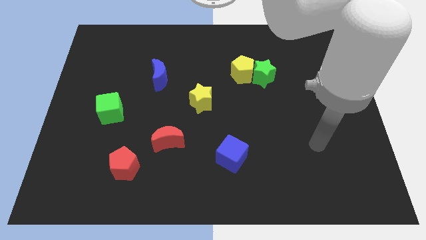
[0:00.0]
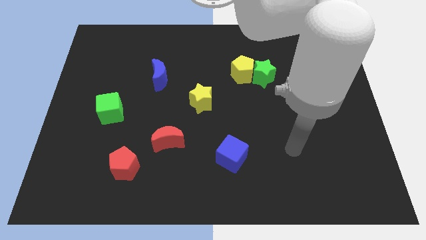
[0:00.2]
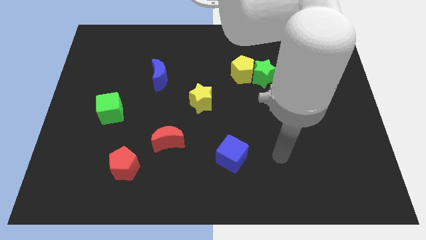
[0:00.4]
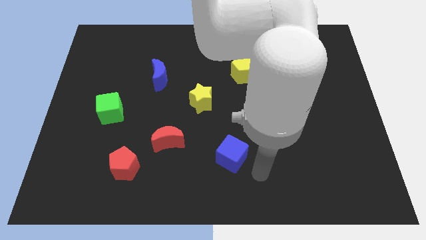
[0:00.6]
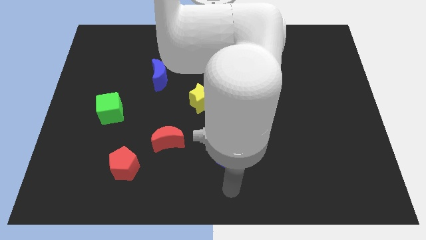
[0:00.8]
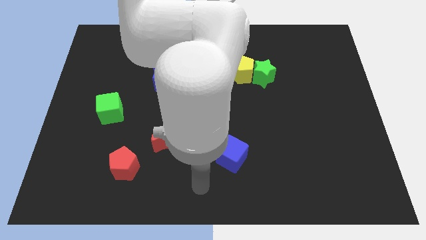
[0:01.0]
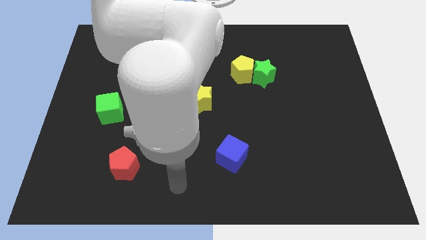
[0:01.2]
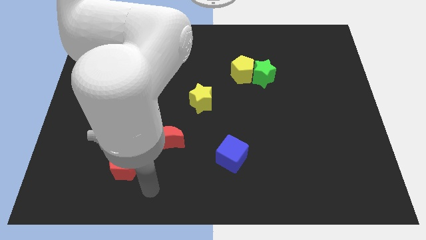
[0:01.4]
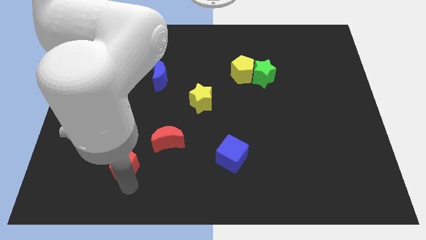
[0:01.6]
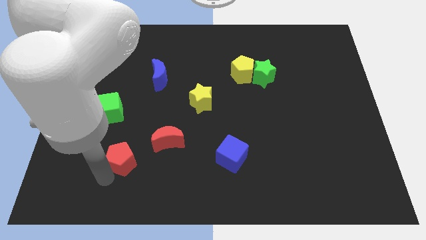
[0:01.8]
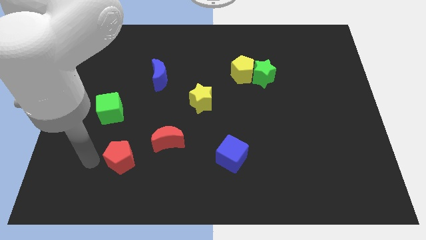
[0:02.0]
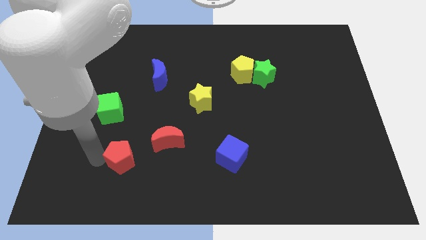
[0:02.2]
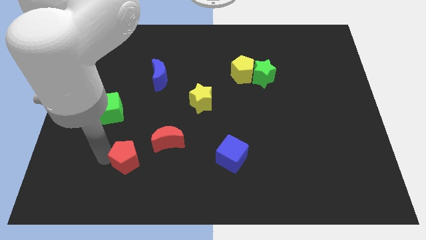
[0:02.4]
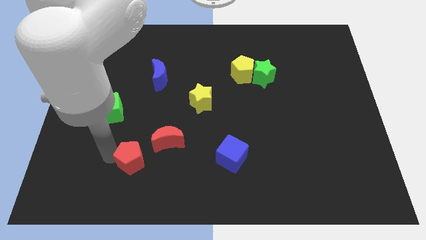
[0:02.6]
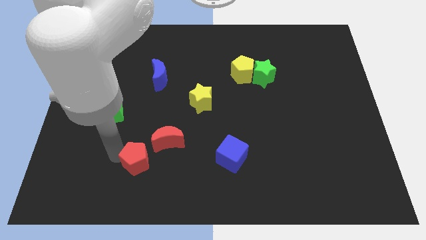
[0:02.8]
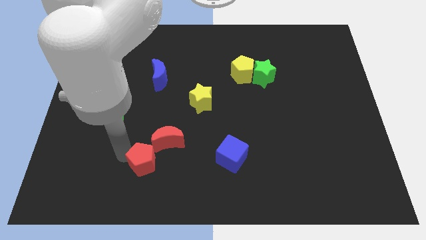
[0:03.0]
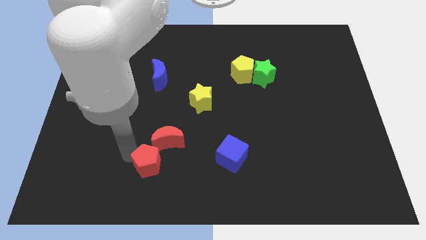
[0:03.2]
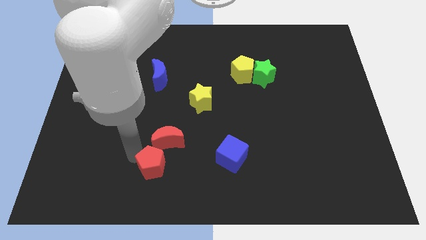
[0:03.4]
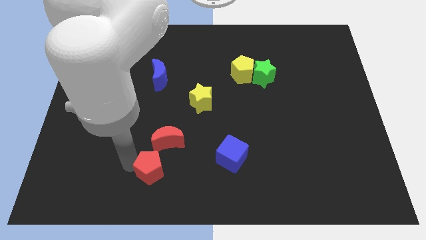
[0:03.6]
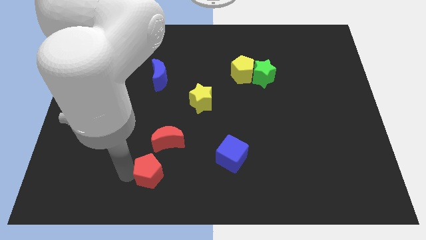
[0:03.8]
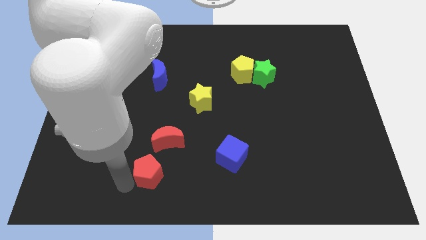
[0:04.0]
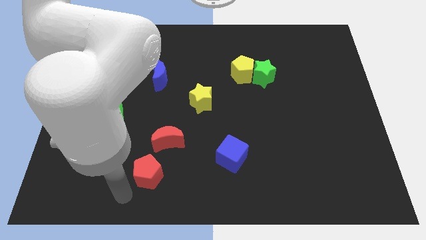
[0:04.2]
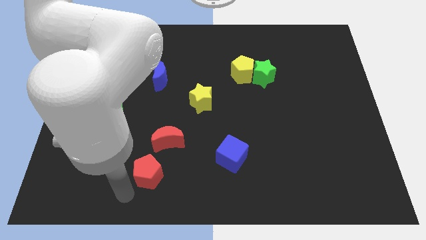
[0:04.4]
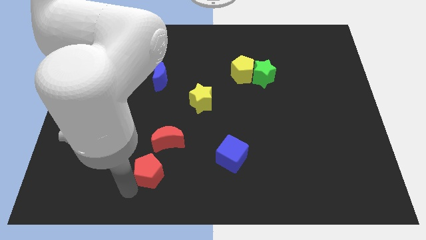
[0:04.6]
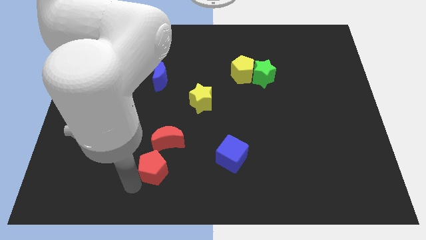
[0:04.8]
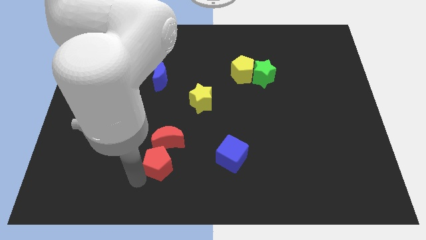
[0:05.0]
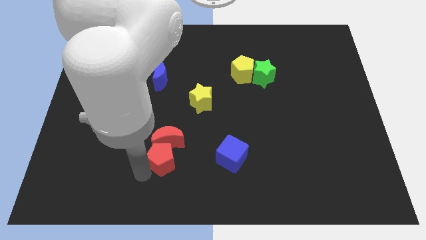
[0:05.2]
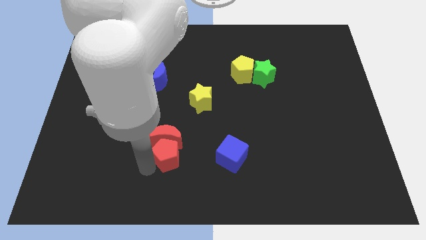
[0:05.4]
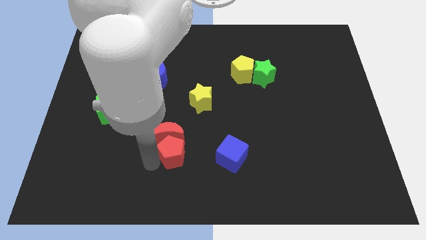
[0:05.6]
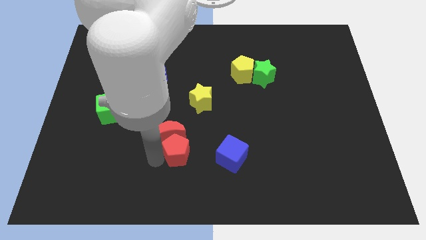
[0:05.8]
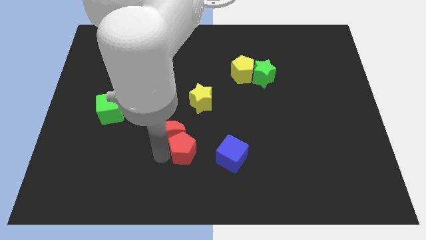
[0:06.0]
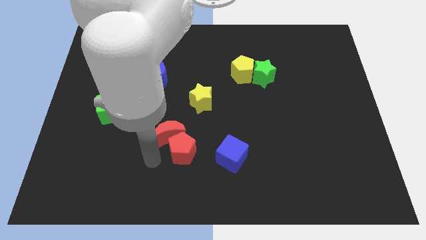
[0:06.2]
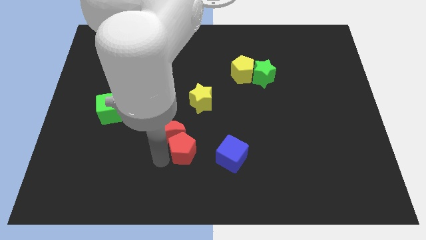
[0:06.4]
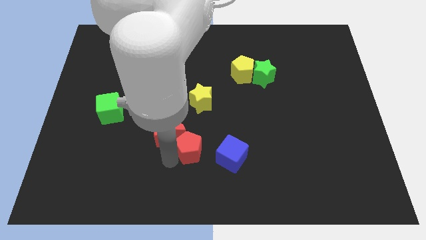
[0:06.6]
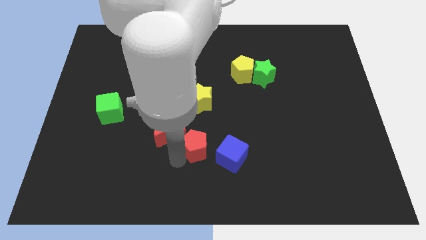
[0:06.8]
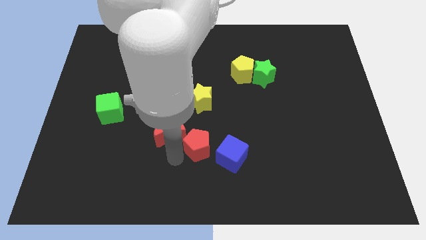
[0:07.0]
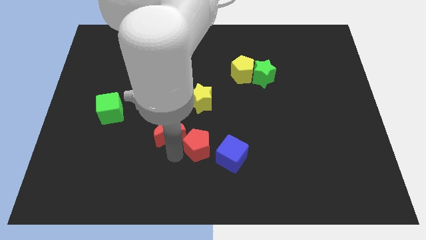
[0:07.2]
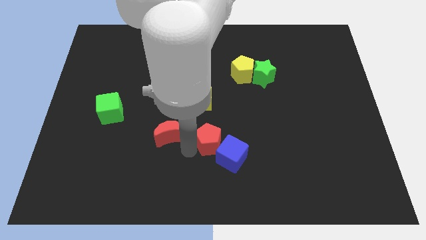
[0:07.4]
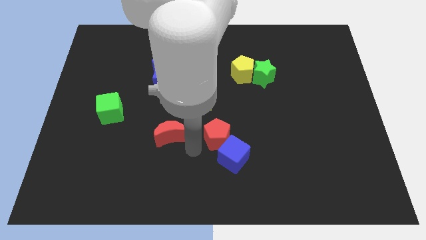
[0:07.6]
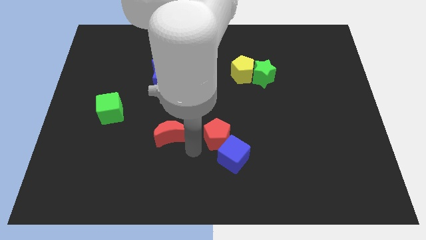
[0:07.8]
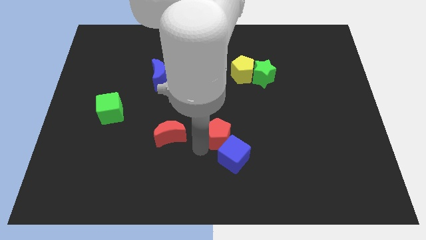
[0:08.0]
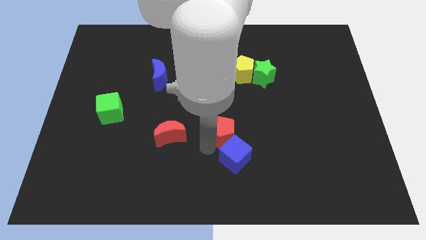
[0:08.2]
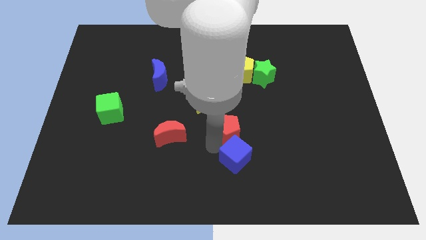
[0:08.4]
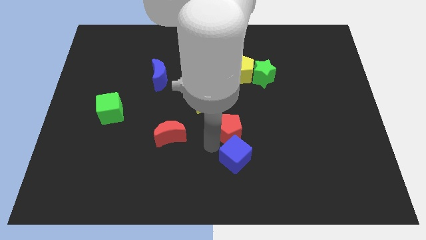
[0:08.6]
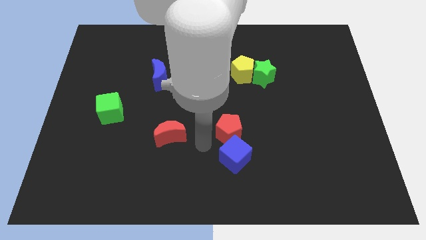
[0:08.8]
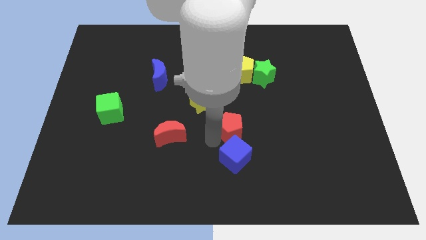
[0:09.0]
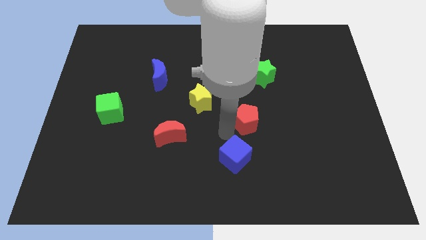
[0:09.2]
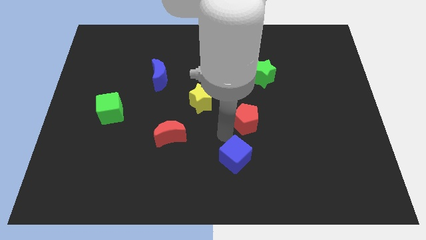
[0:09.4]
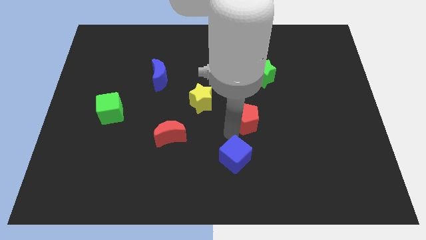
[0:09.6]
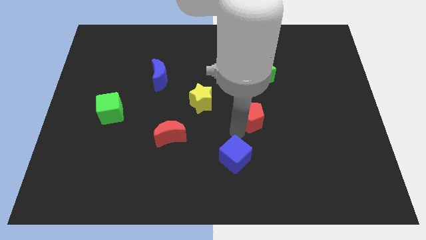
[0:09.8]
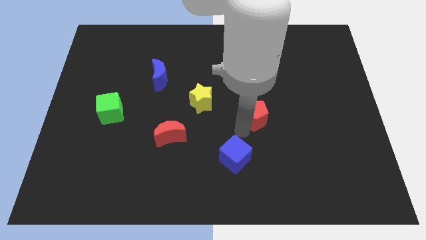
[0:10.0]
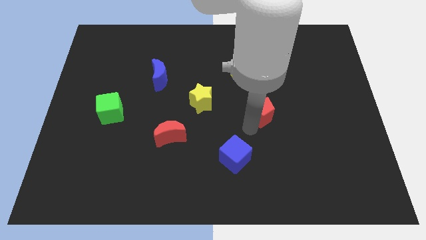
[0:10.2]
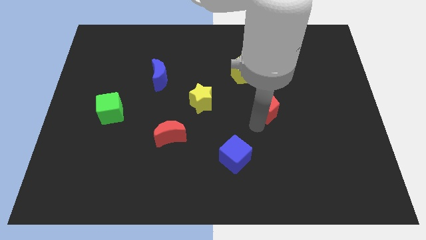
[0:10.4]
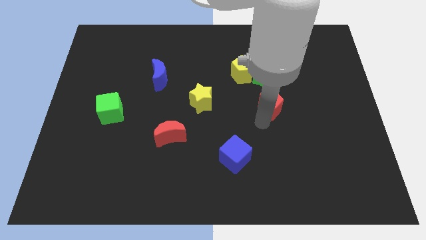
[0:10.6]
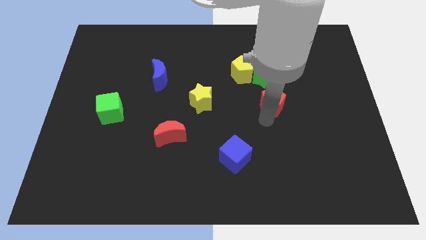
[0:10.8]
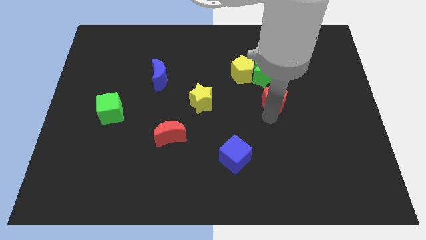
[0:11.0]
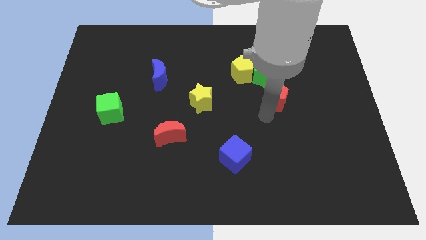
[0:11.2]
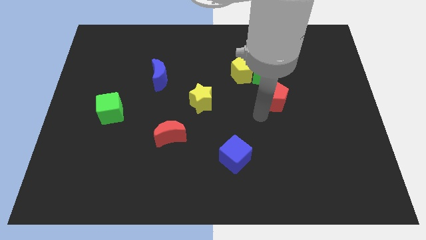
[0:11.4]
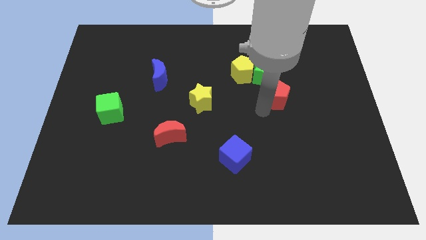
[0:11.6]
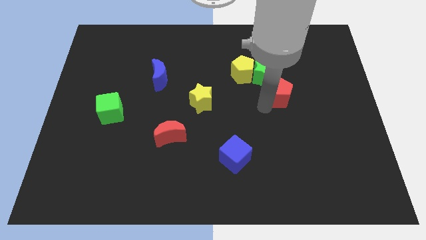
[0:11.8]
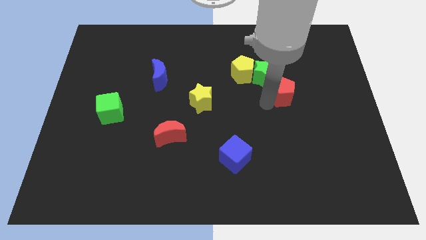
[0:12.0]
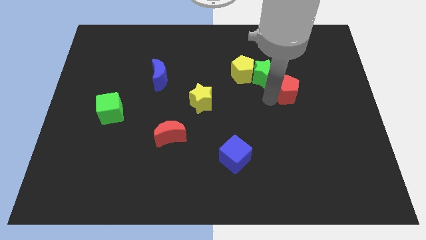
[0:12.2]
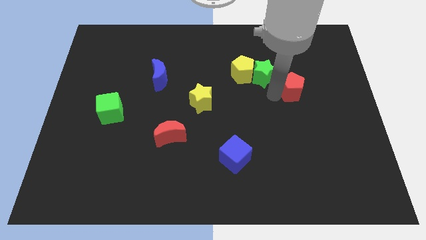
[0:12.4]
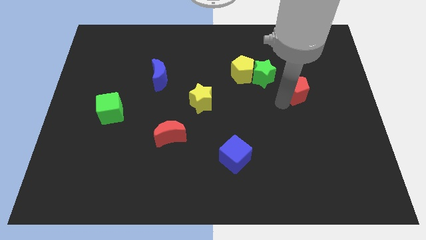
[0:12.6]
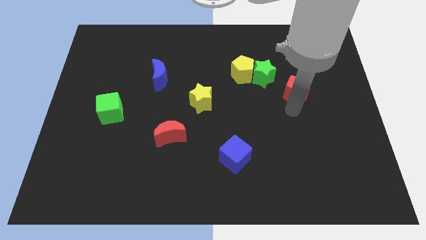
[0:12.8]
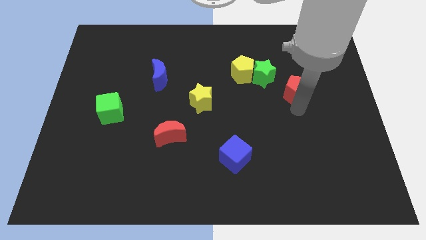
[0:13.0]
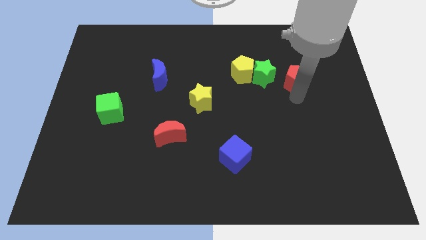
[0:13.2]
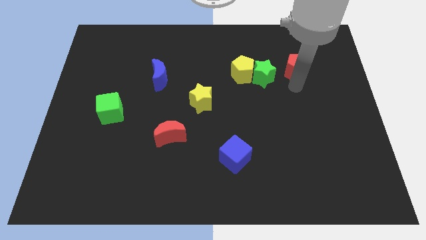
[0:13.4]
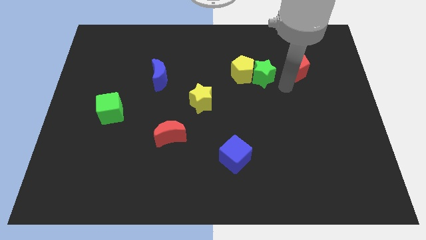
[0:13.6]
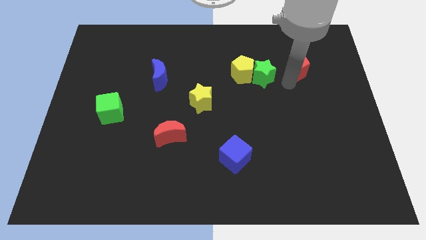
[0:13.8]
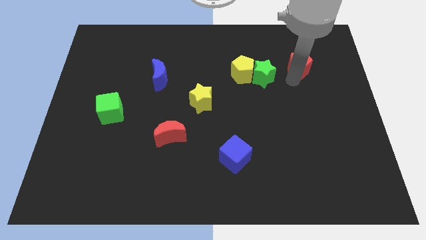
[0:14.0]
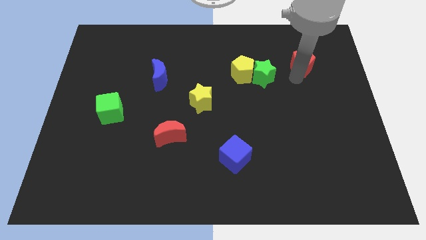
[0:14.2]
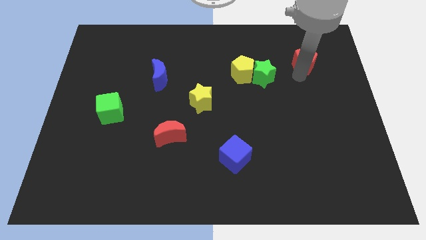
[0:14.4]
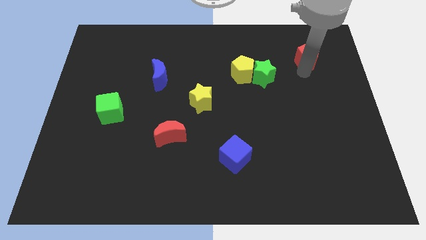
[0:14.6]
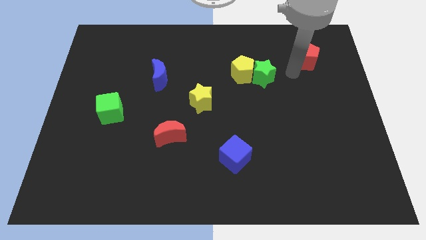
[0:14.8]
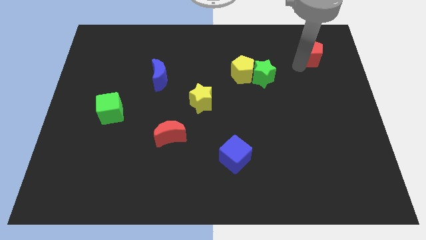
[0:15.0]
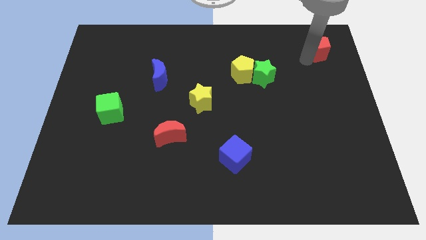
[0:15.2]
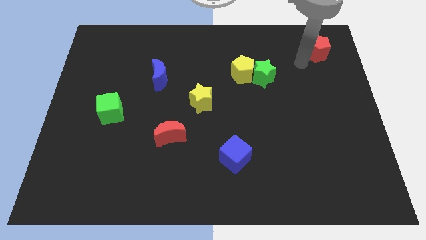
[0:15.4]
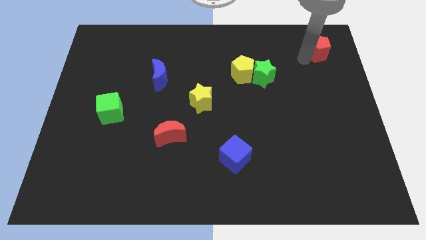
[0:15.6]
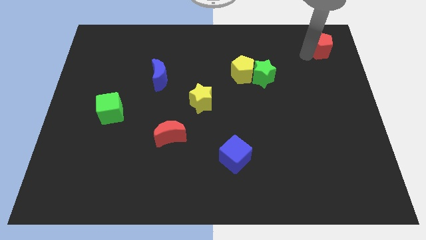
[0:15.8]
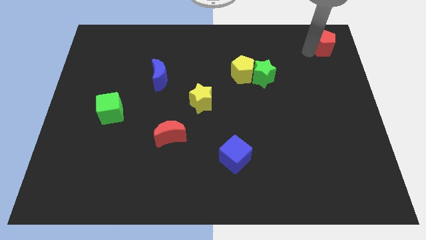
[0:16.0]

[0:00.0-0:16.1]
move the red pentagon to the top right
